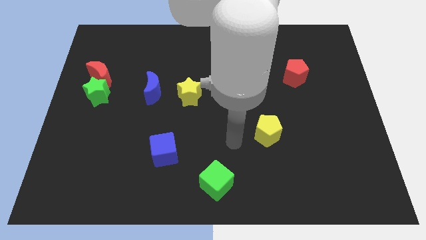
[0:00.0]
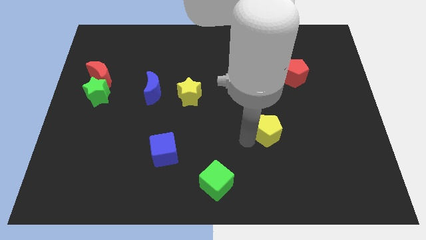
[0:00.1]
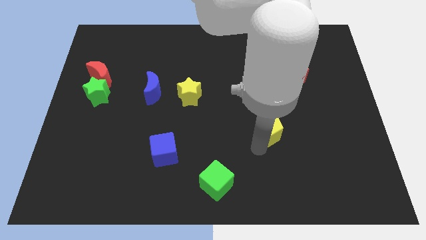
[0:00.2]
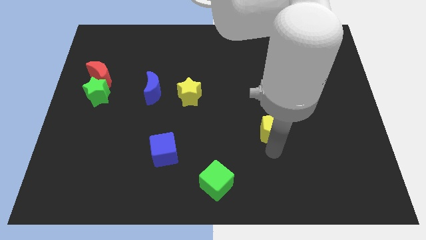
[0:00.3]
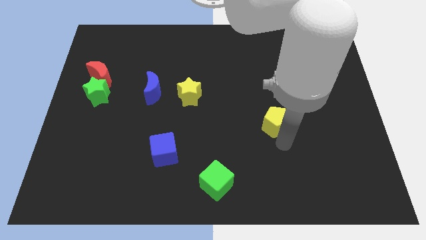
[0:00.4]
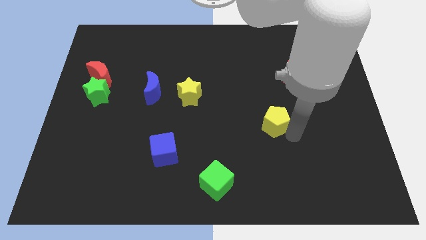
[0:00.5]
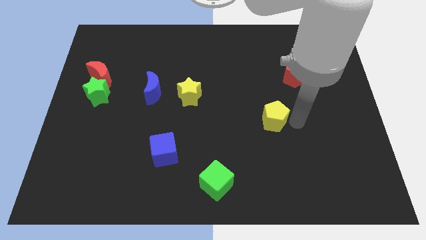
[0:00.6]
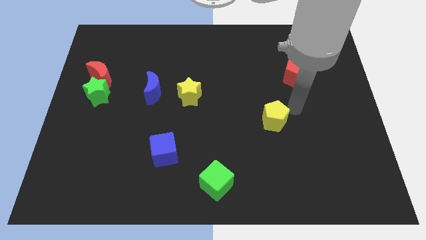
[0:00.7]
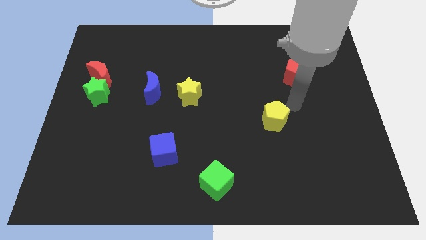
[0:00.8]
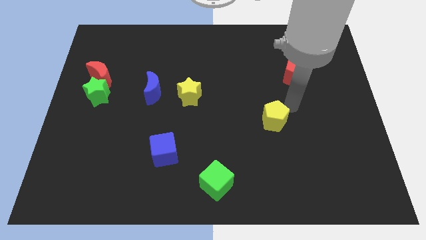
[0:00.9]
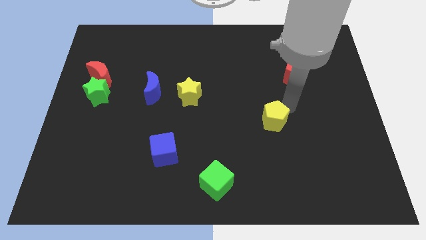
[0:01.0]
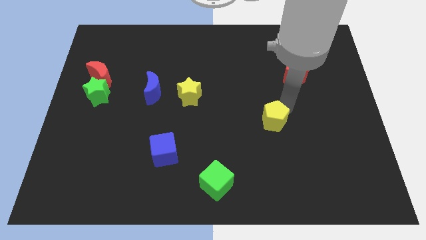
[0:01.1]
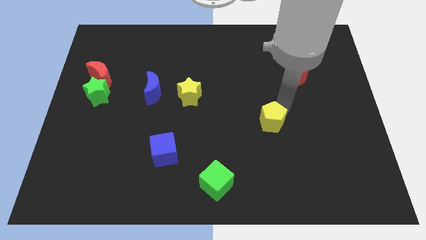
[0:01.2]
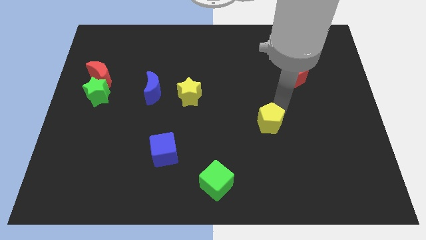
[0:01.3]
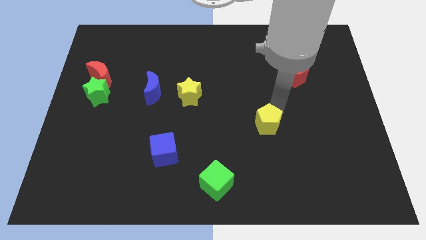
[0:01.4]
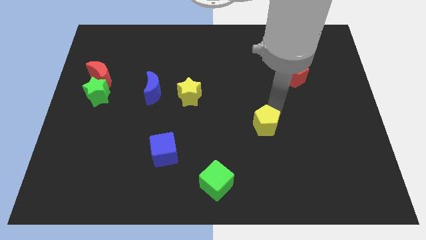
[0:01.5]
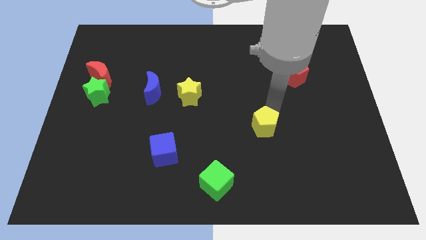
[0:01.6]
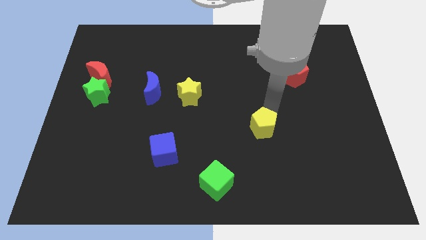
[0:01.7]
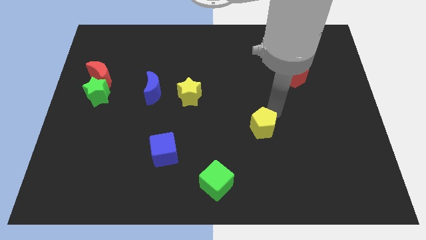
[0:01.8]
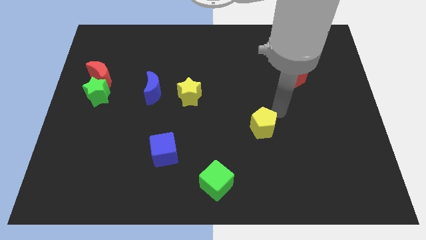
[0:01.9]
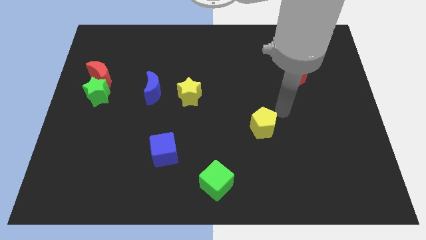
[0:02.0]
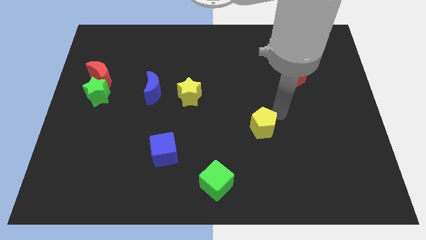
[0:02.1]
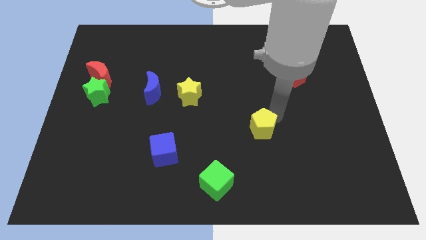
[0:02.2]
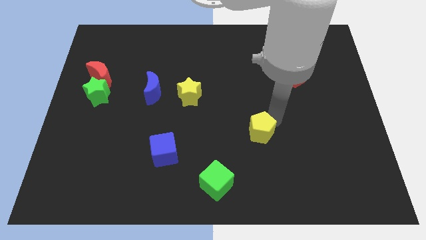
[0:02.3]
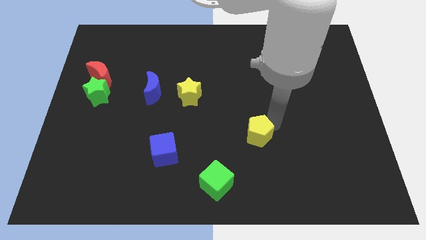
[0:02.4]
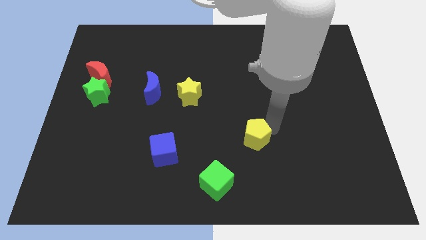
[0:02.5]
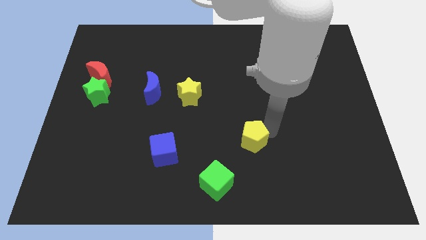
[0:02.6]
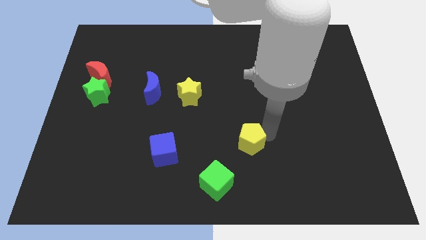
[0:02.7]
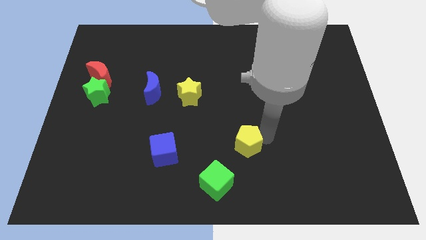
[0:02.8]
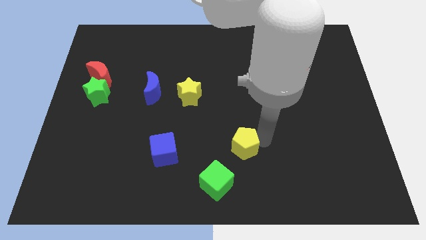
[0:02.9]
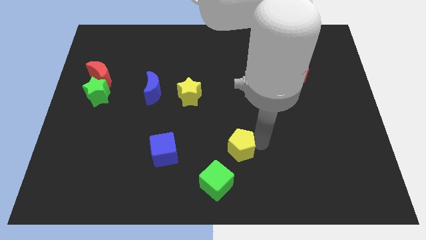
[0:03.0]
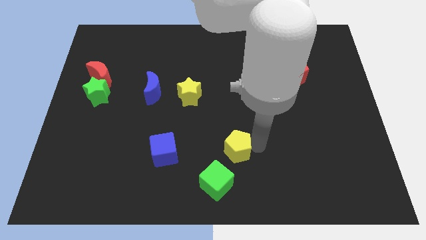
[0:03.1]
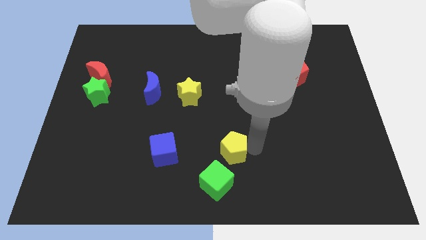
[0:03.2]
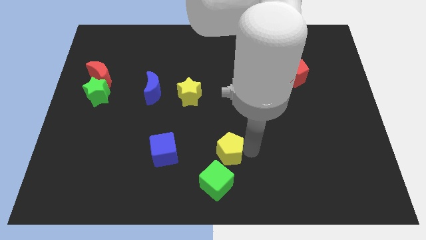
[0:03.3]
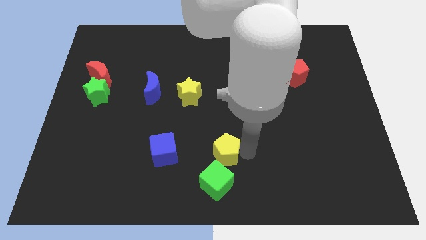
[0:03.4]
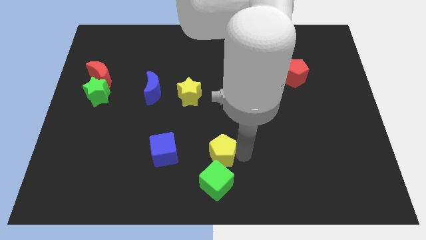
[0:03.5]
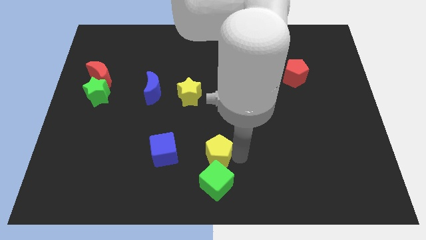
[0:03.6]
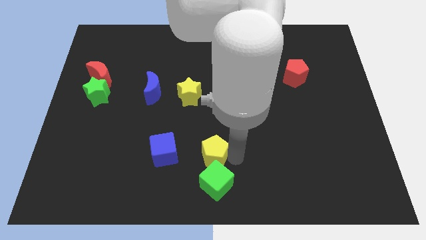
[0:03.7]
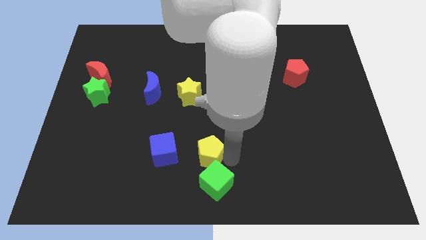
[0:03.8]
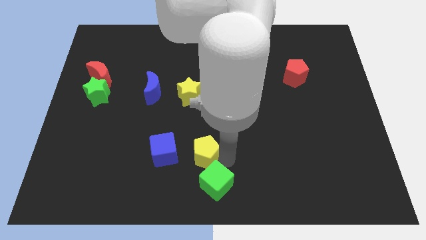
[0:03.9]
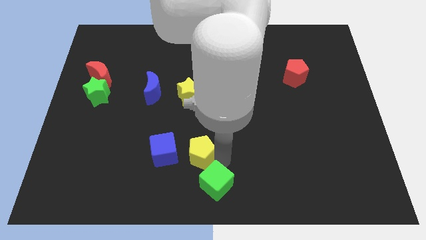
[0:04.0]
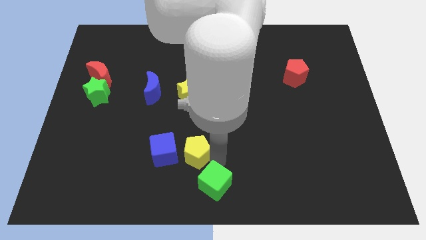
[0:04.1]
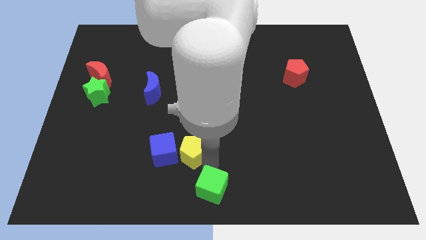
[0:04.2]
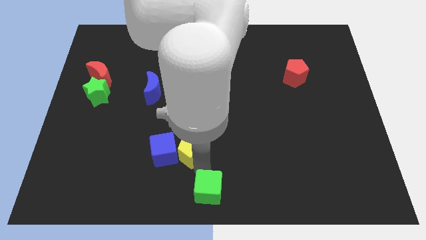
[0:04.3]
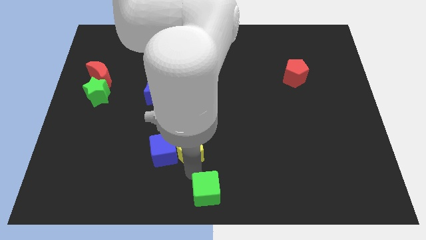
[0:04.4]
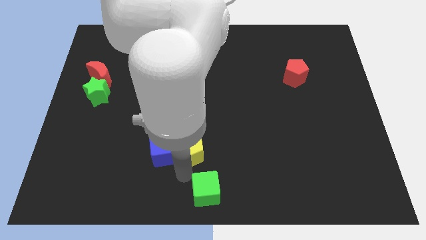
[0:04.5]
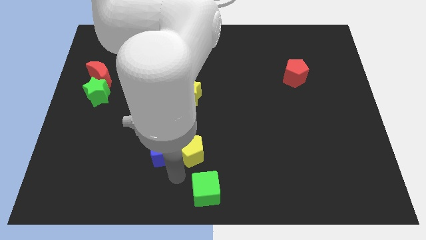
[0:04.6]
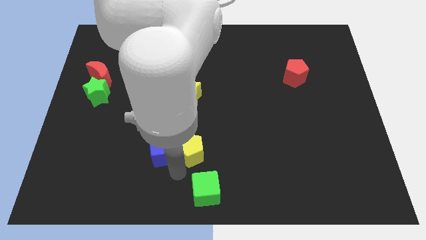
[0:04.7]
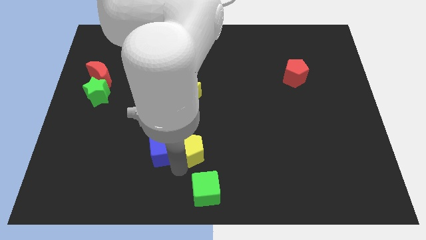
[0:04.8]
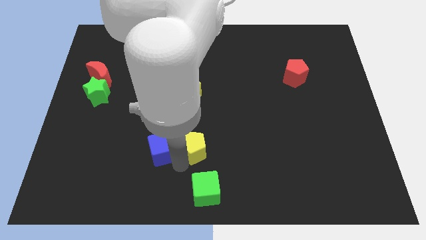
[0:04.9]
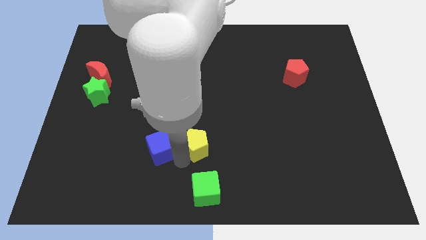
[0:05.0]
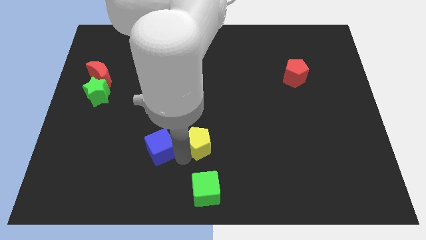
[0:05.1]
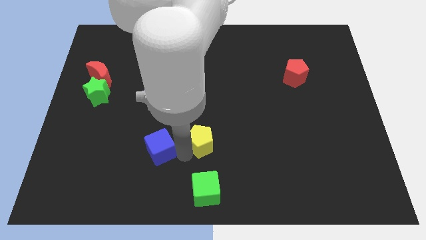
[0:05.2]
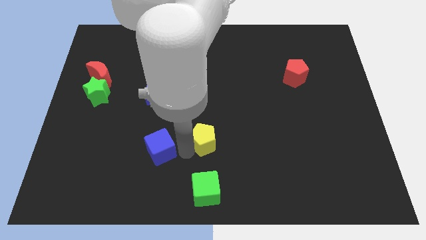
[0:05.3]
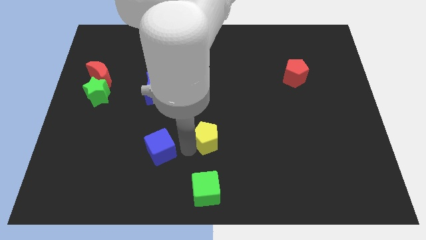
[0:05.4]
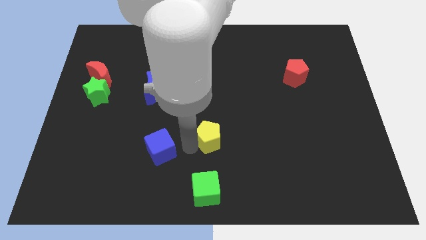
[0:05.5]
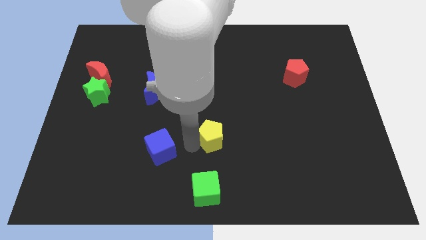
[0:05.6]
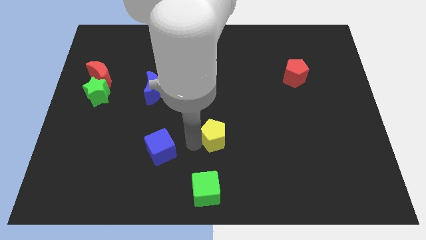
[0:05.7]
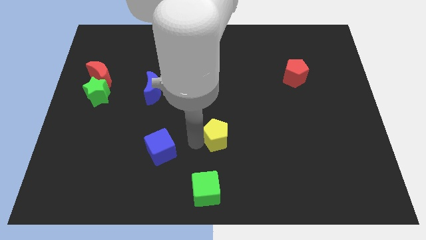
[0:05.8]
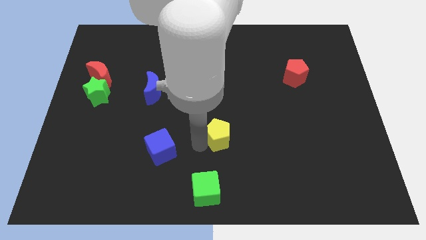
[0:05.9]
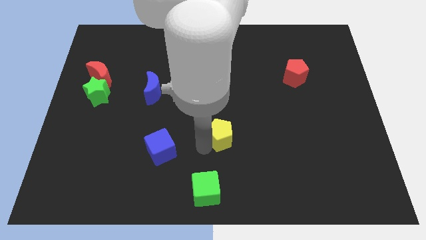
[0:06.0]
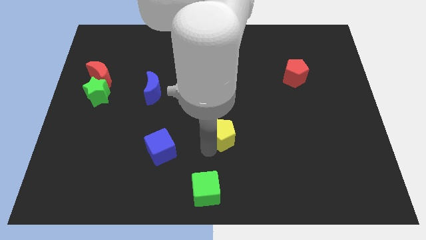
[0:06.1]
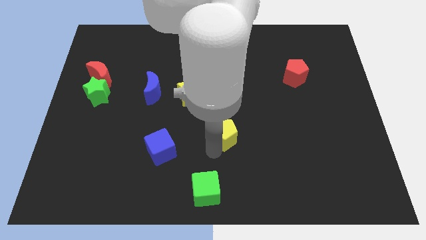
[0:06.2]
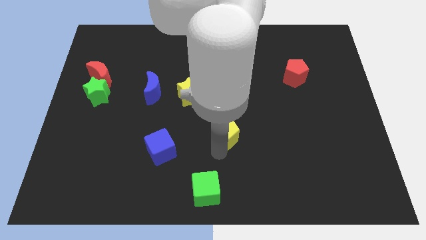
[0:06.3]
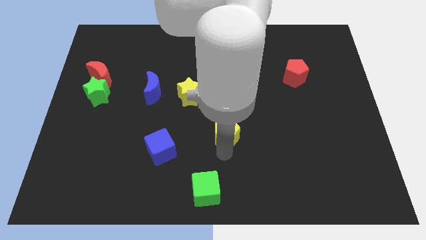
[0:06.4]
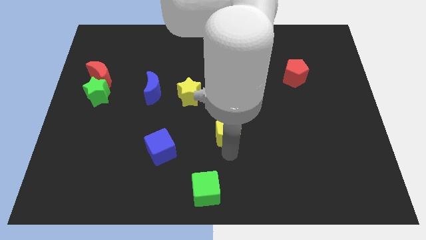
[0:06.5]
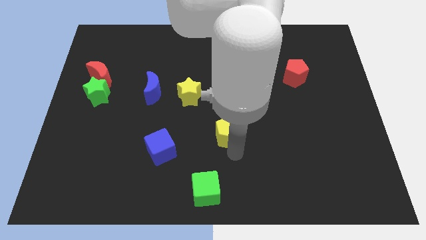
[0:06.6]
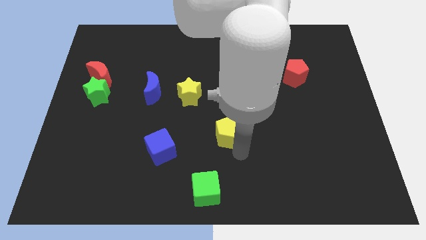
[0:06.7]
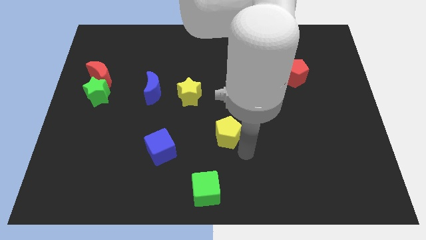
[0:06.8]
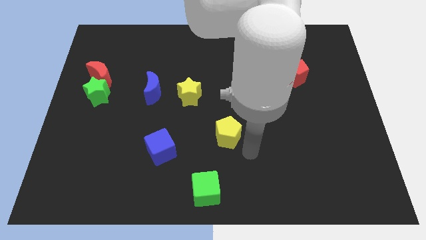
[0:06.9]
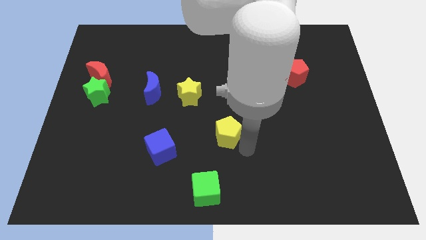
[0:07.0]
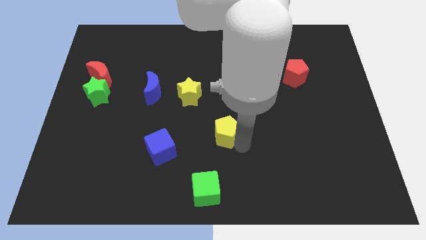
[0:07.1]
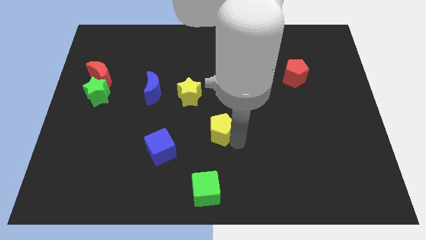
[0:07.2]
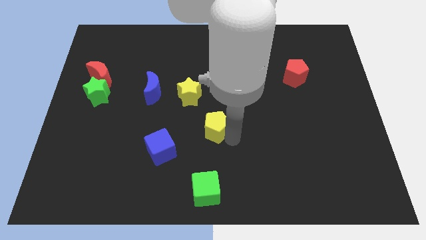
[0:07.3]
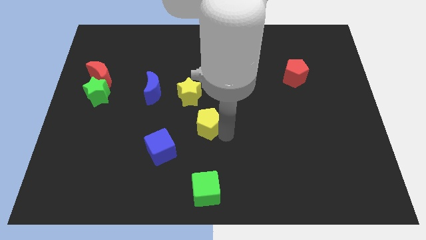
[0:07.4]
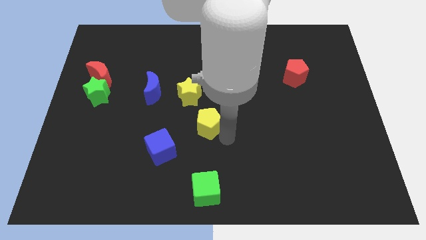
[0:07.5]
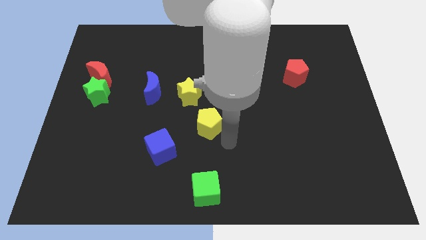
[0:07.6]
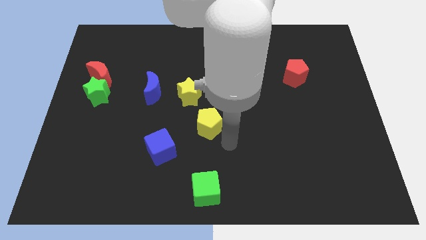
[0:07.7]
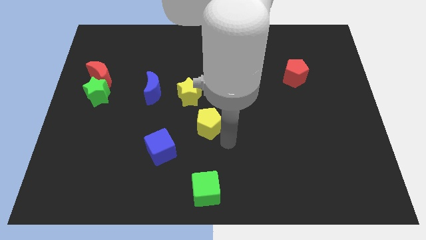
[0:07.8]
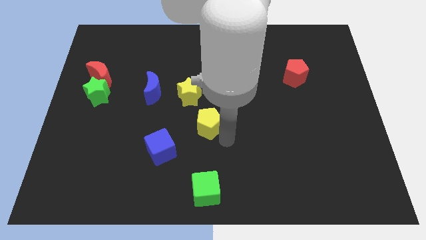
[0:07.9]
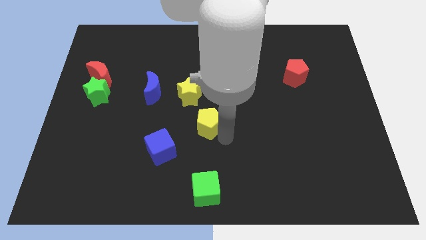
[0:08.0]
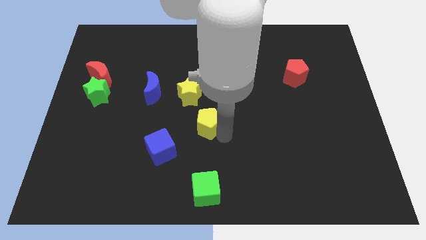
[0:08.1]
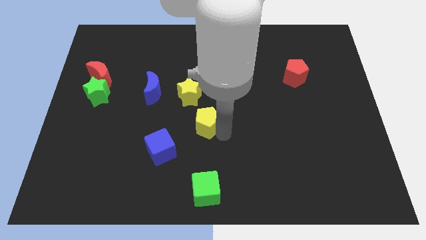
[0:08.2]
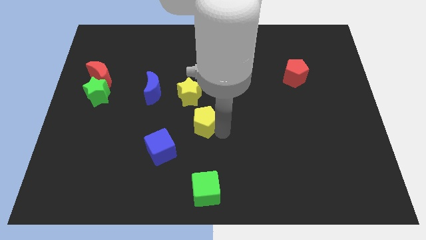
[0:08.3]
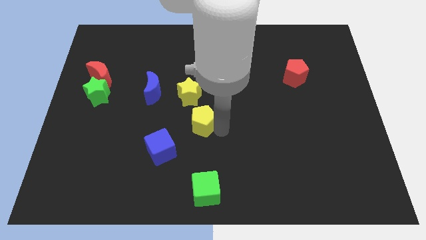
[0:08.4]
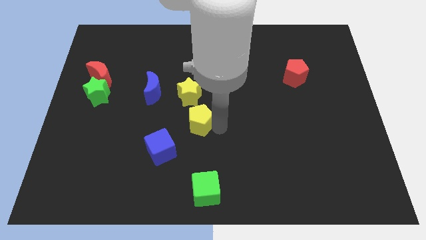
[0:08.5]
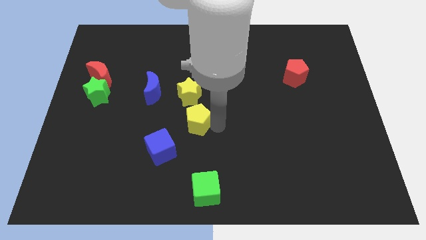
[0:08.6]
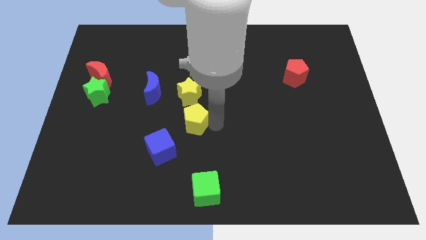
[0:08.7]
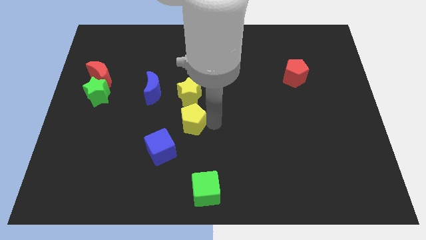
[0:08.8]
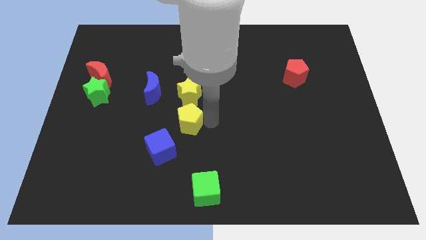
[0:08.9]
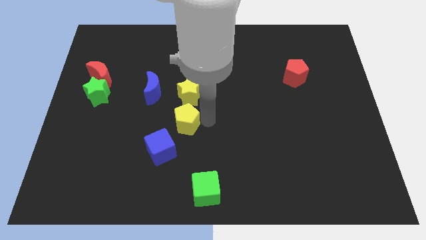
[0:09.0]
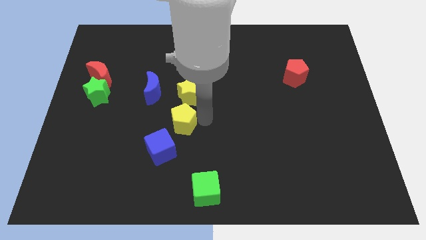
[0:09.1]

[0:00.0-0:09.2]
put the yellow pentagon above the blue cube
